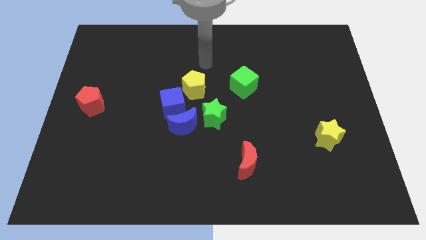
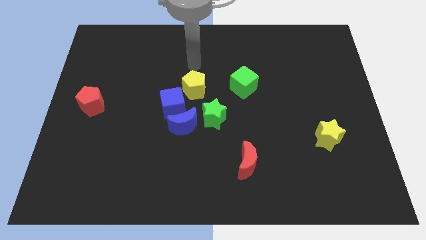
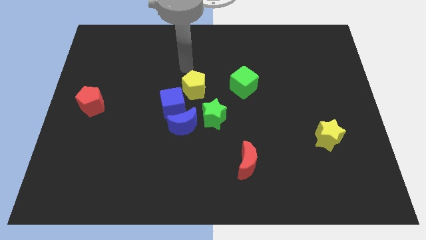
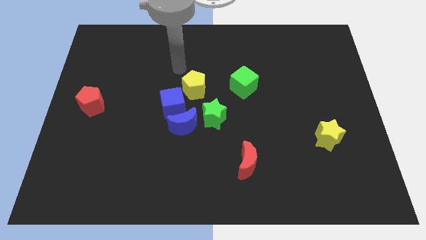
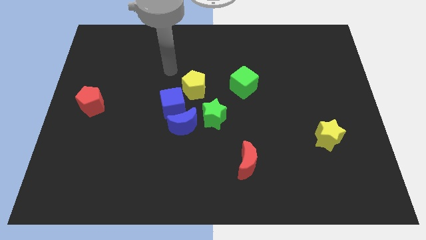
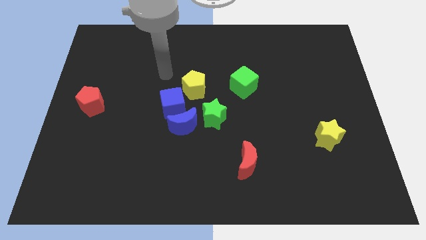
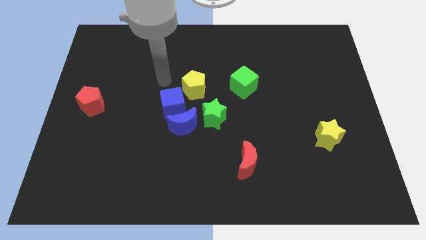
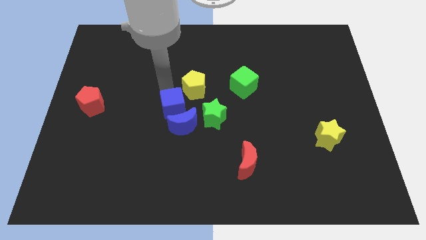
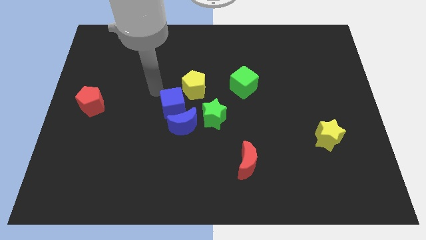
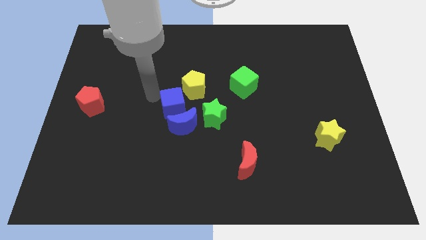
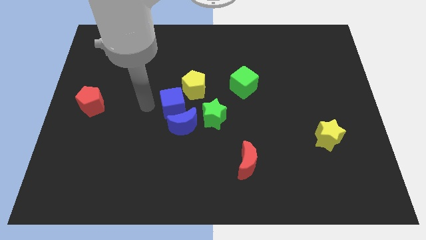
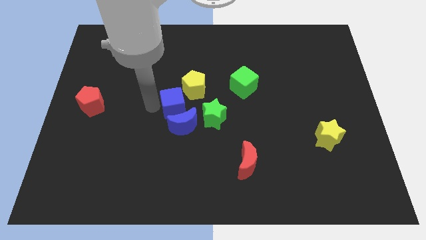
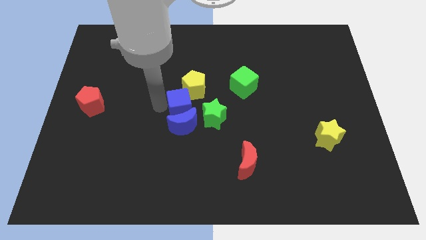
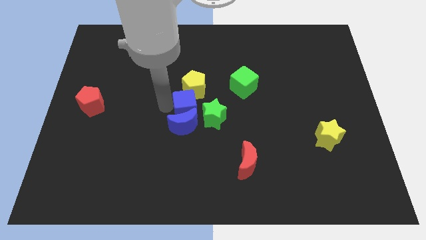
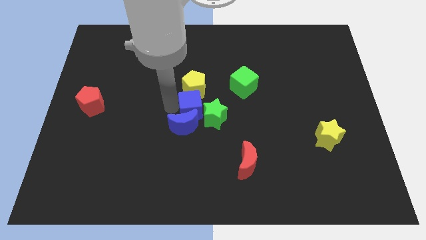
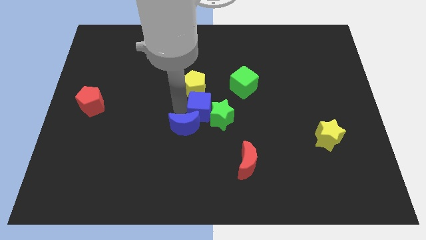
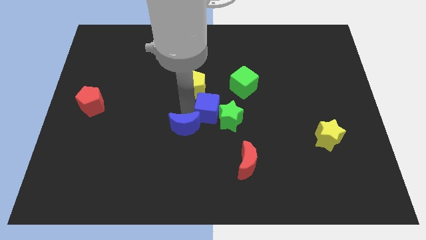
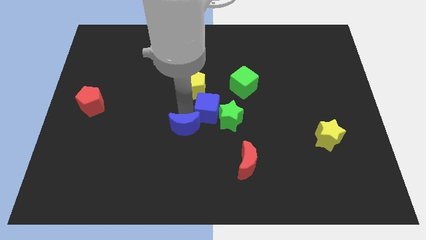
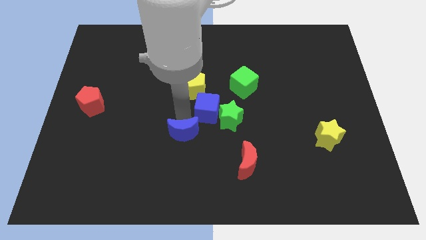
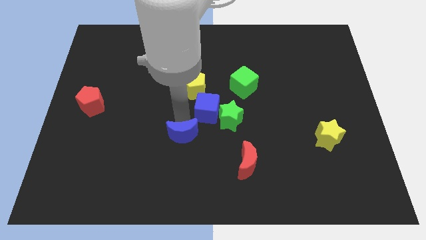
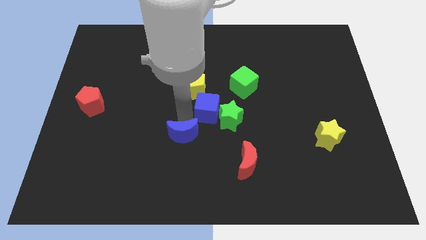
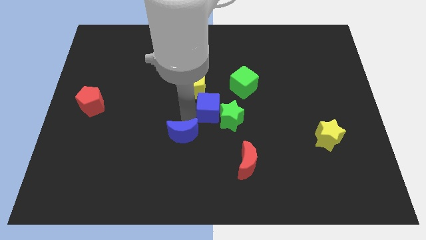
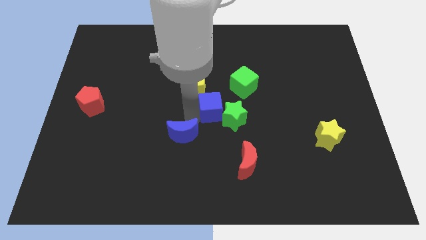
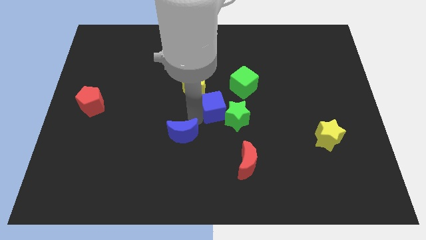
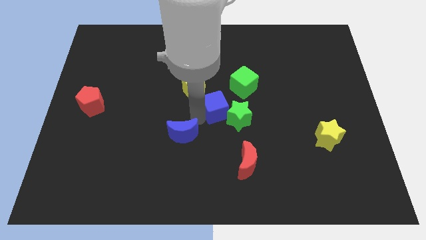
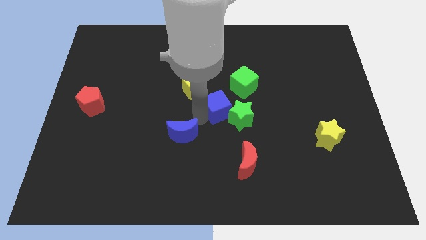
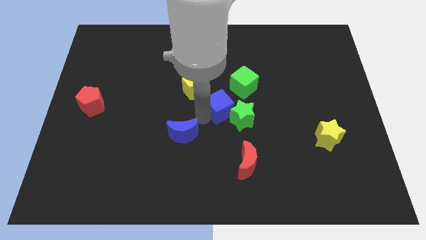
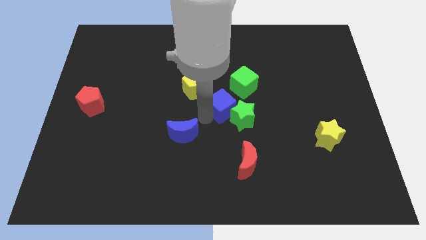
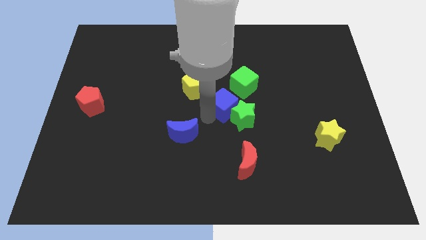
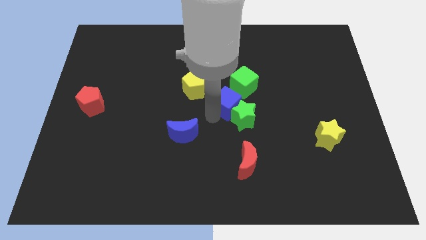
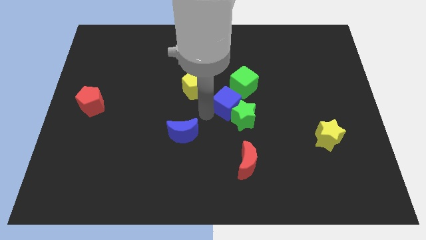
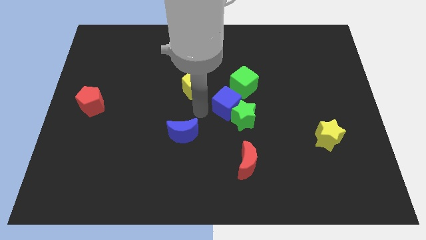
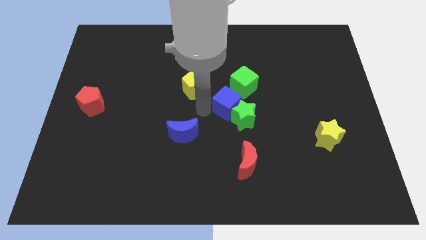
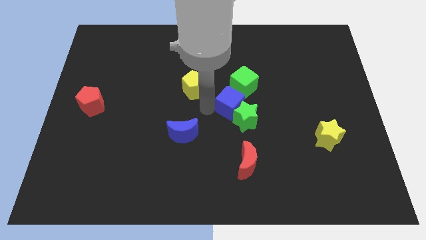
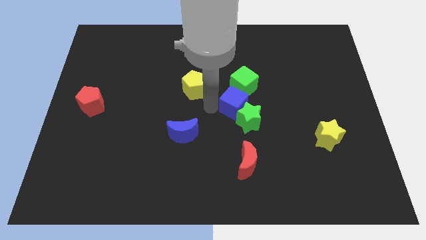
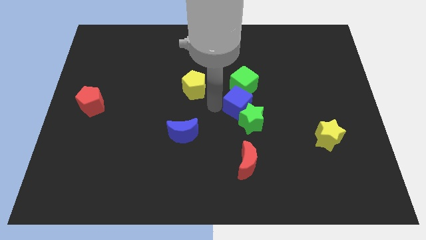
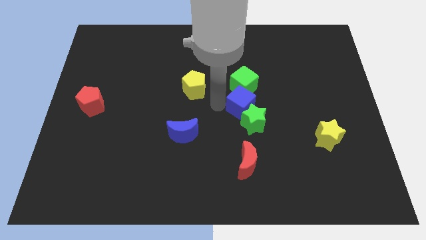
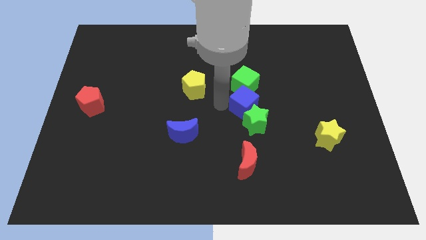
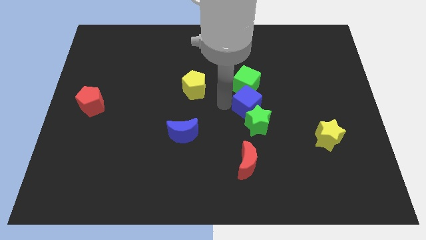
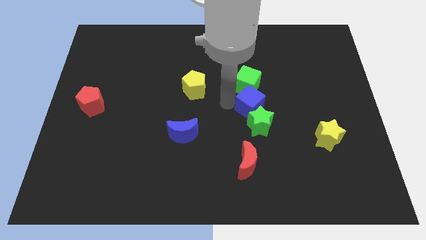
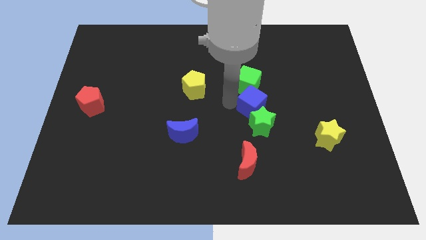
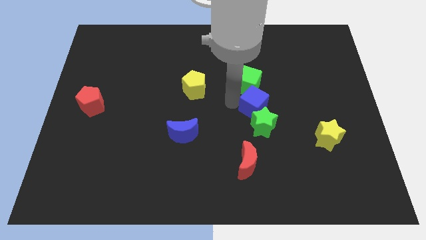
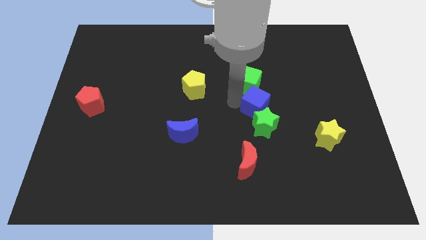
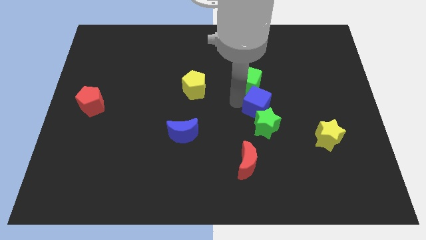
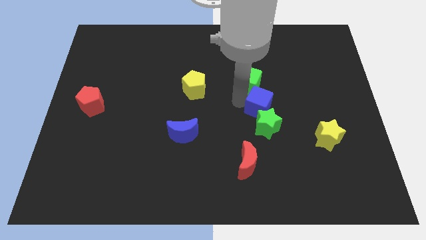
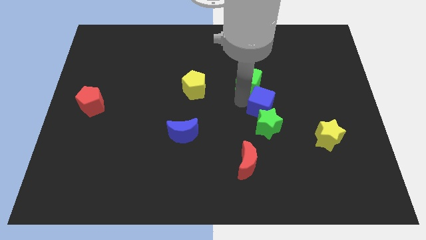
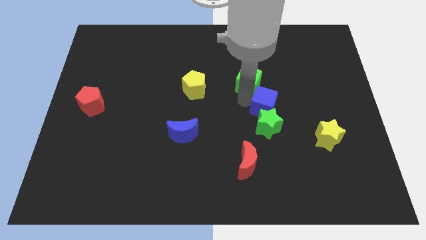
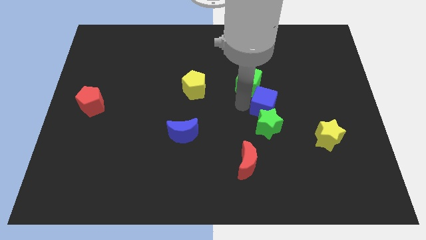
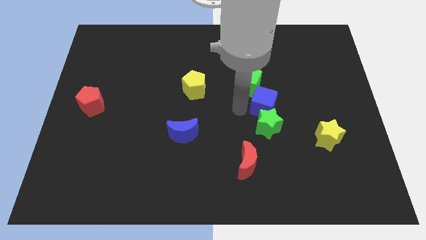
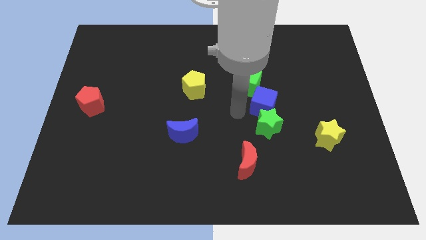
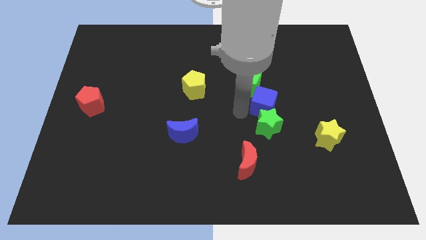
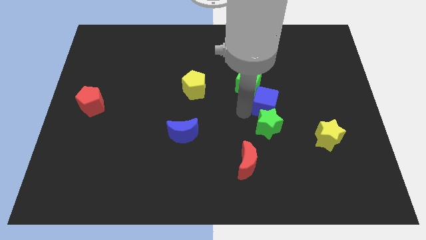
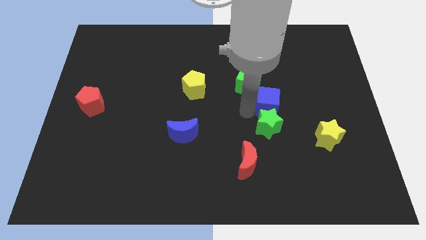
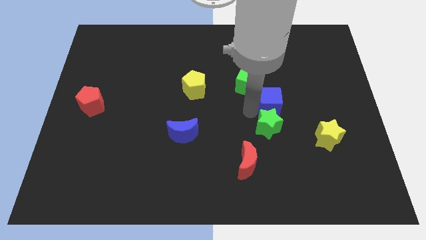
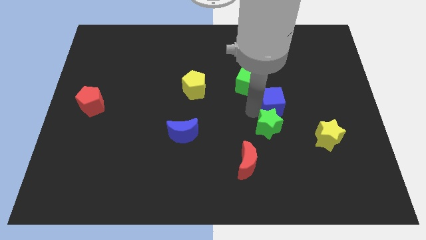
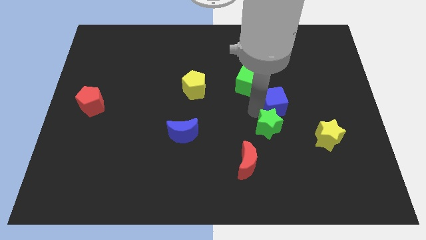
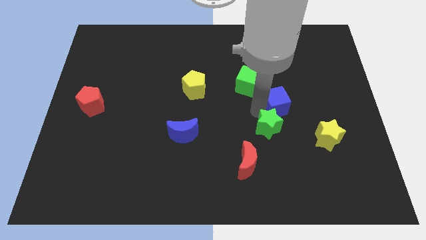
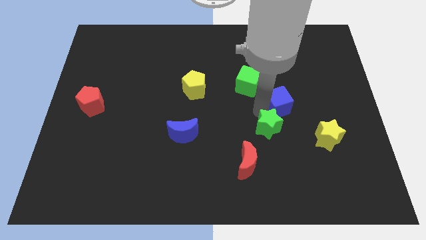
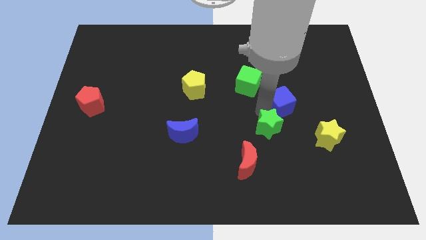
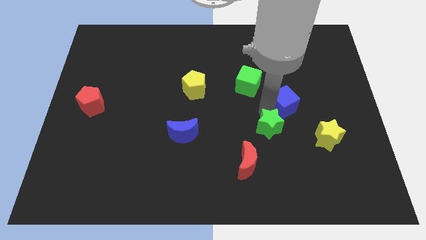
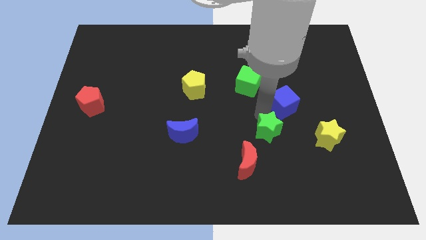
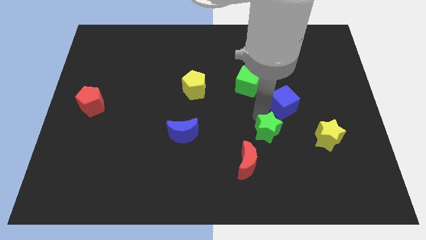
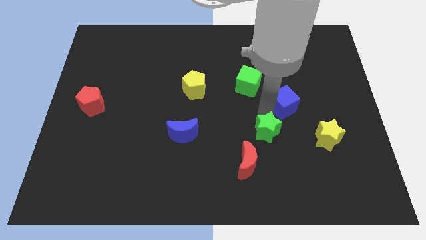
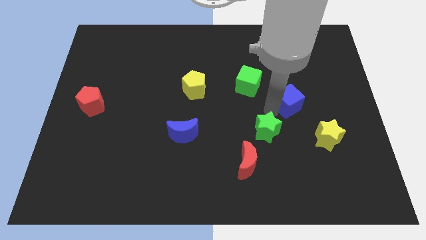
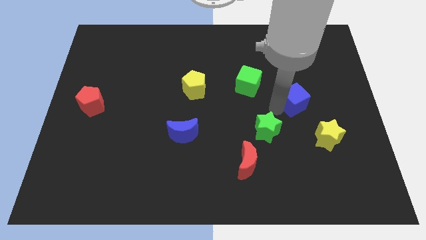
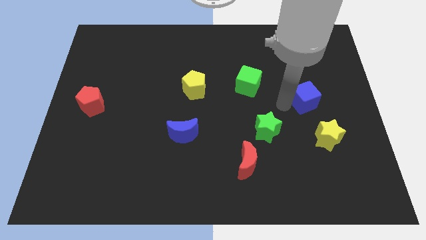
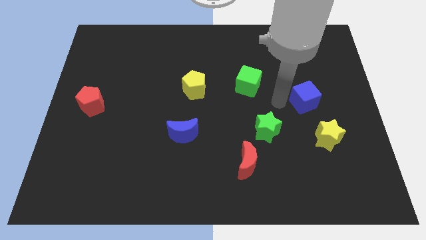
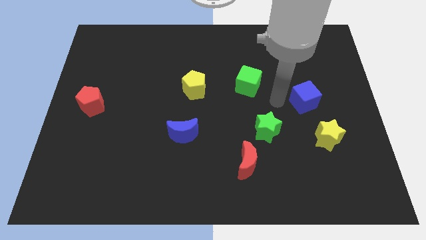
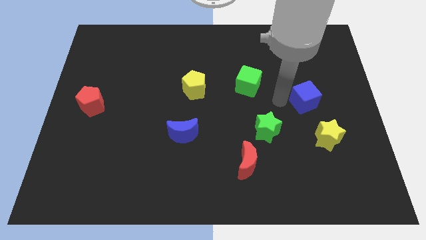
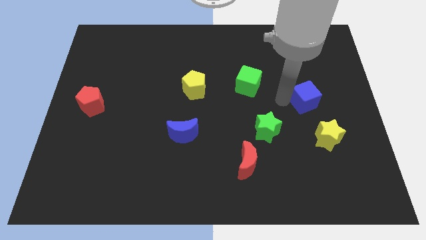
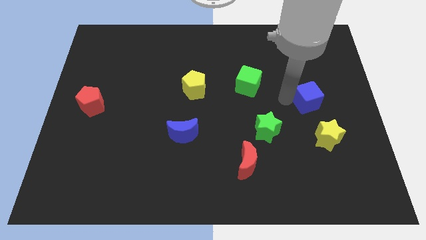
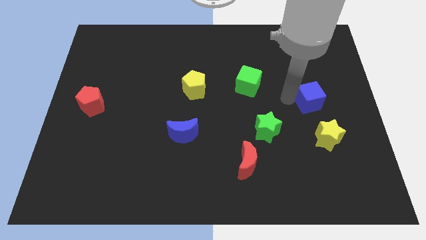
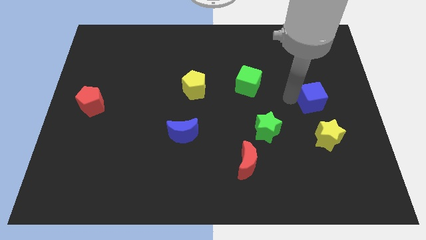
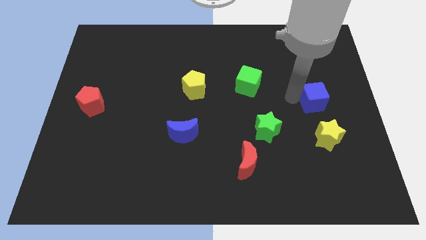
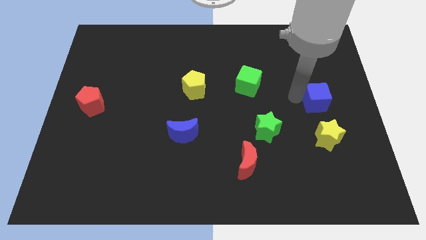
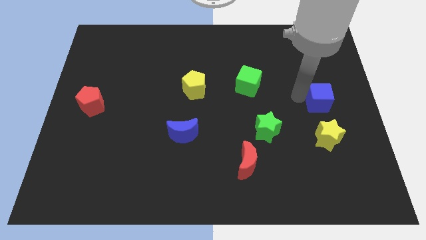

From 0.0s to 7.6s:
move the blue cube to the right side
